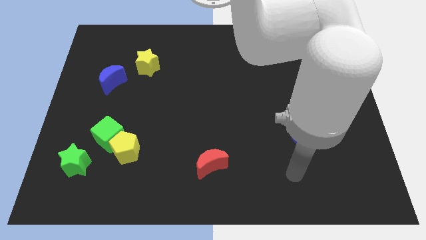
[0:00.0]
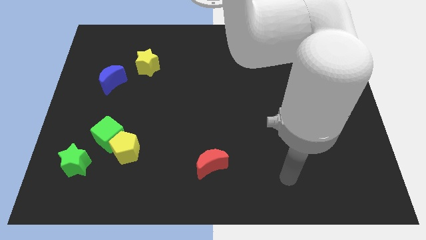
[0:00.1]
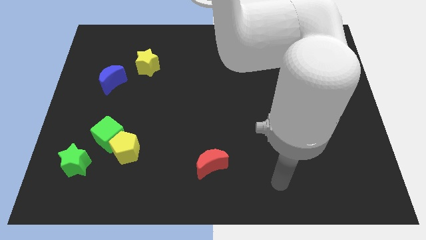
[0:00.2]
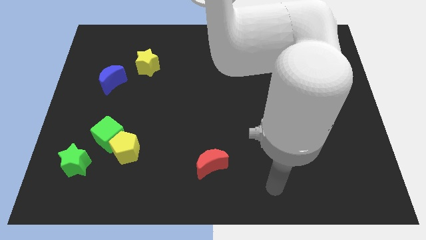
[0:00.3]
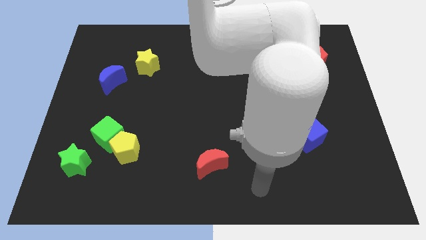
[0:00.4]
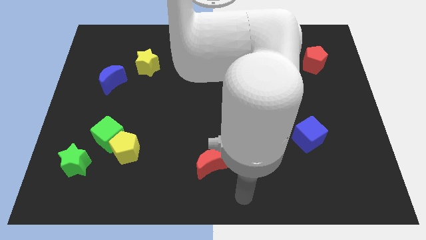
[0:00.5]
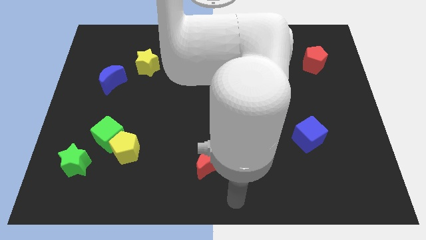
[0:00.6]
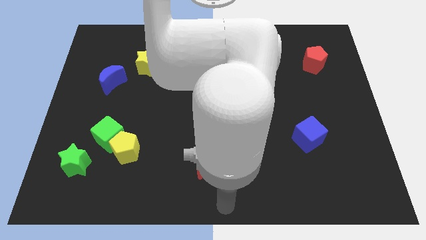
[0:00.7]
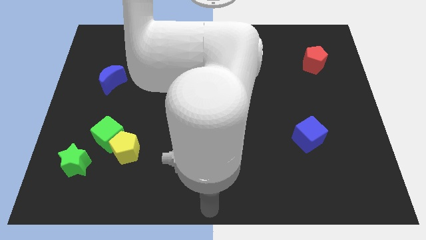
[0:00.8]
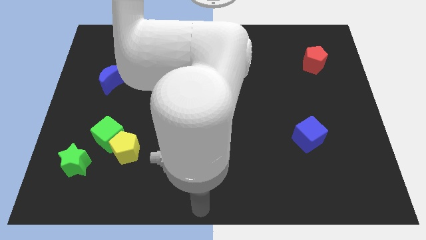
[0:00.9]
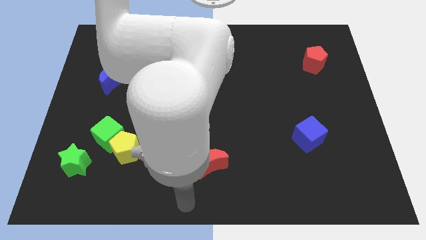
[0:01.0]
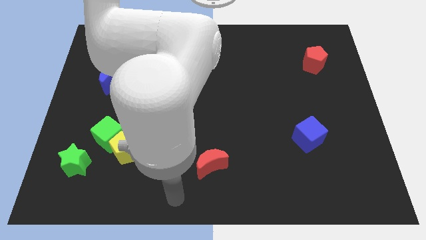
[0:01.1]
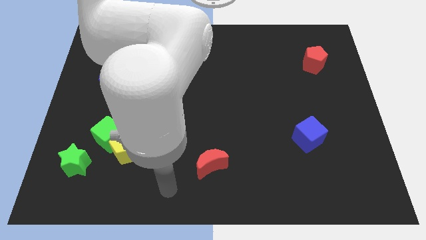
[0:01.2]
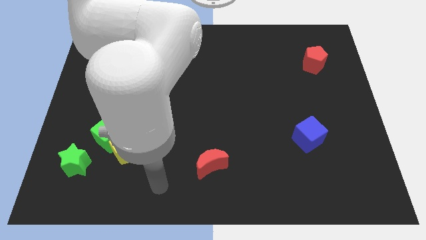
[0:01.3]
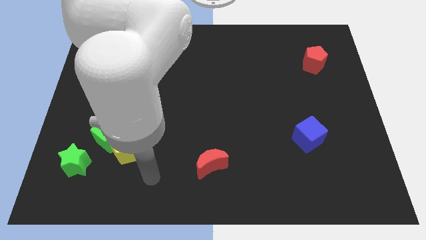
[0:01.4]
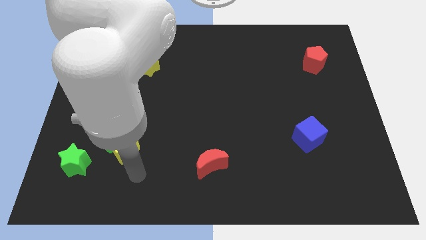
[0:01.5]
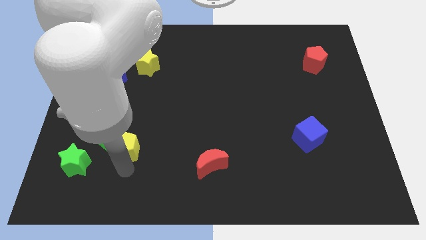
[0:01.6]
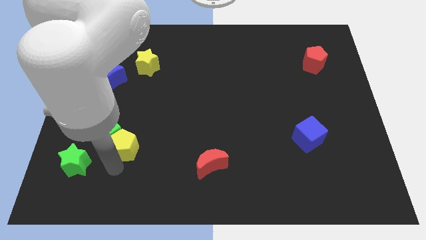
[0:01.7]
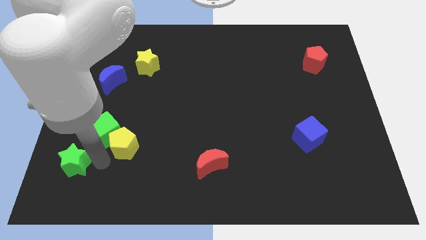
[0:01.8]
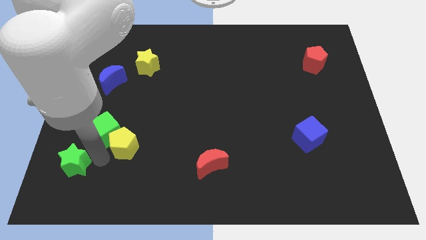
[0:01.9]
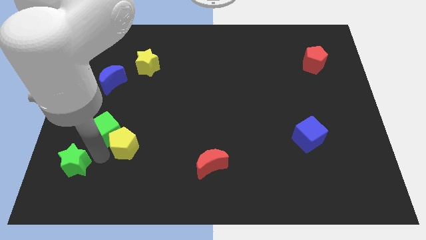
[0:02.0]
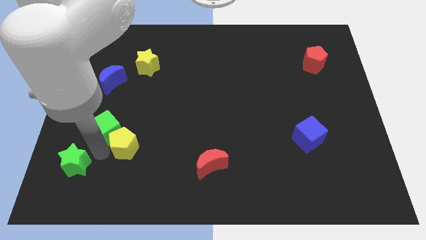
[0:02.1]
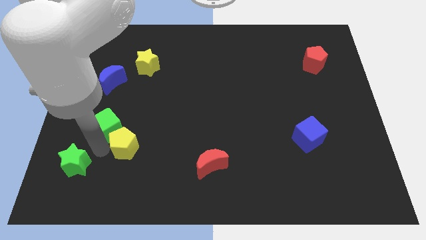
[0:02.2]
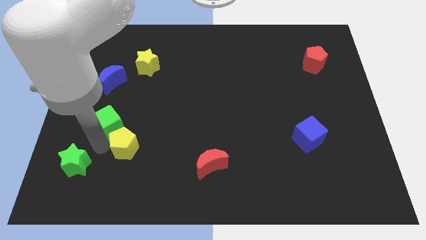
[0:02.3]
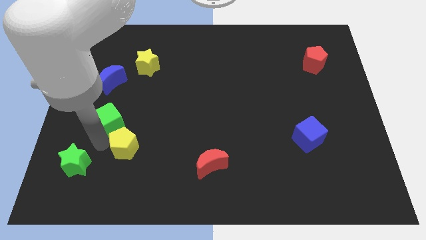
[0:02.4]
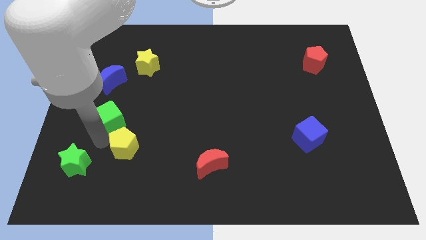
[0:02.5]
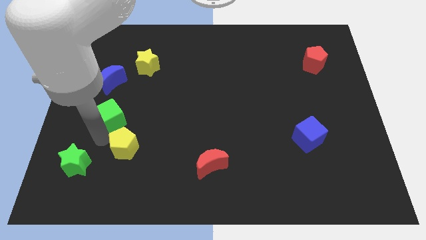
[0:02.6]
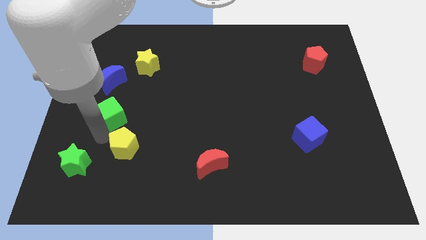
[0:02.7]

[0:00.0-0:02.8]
separate the green cube from the yellow pentagon and green star

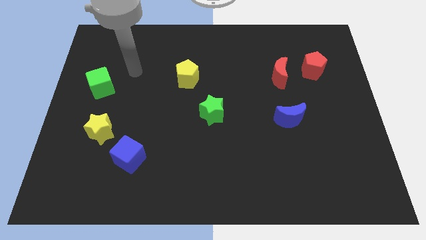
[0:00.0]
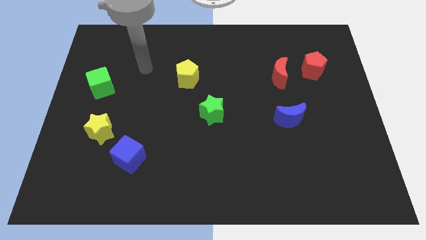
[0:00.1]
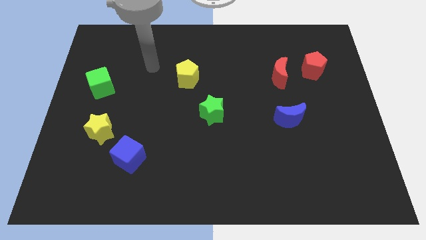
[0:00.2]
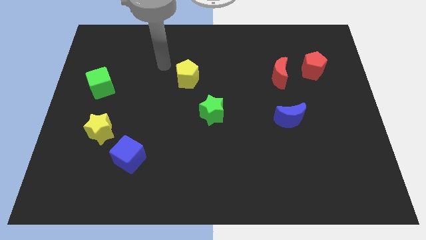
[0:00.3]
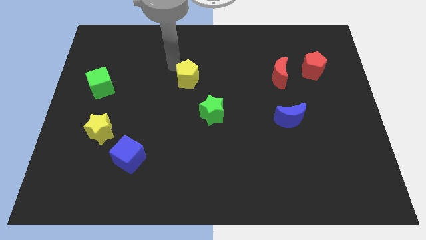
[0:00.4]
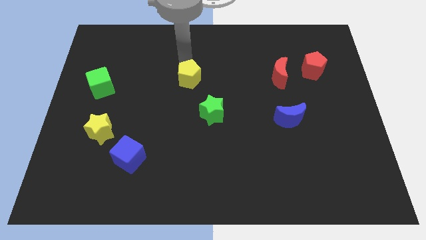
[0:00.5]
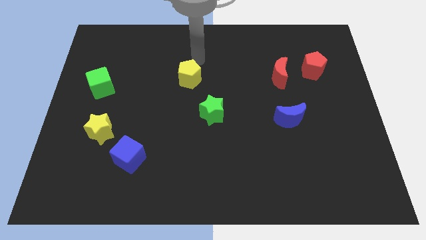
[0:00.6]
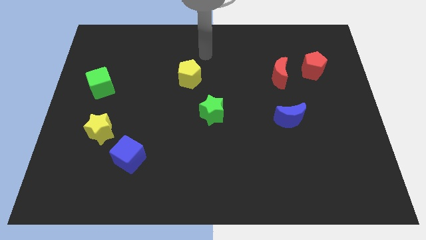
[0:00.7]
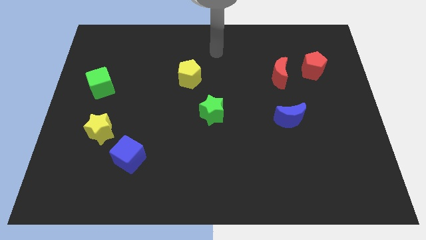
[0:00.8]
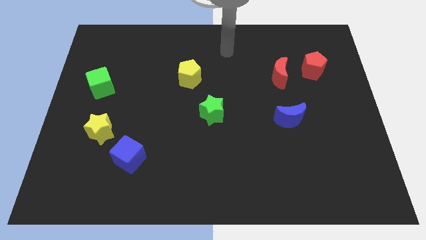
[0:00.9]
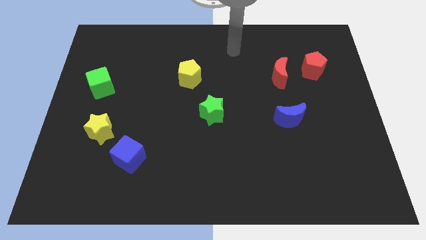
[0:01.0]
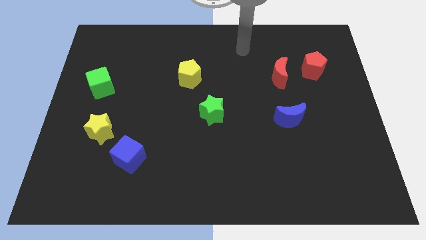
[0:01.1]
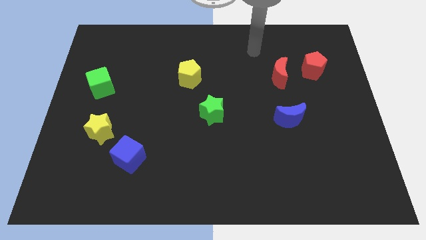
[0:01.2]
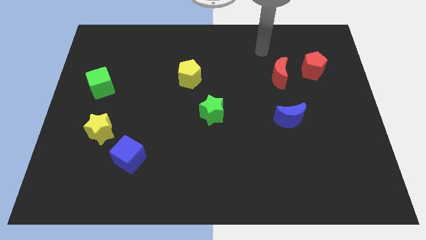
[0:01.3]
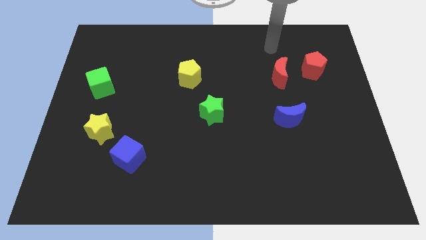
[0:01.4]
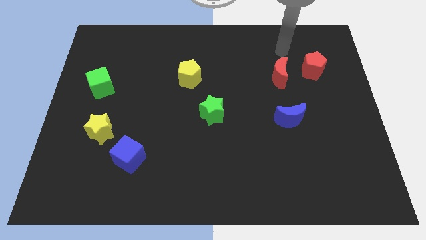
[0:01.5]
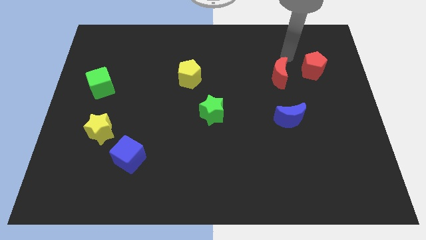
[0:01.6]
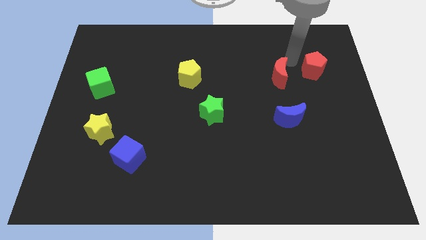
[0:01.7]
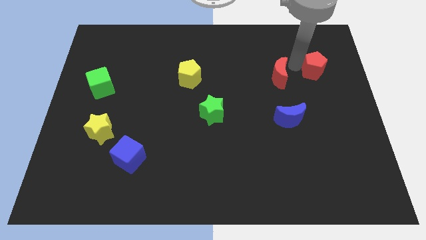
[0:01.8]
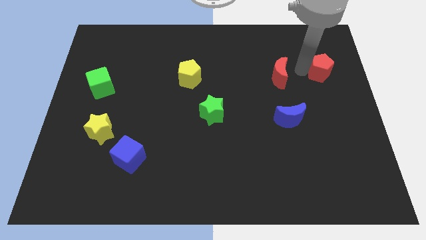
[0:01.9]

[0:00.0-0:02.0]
separate the red moon from the red pentagon

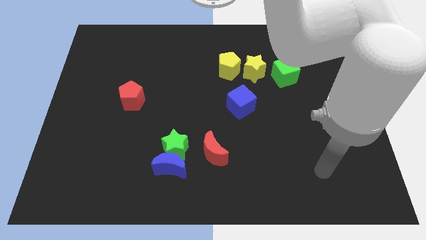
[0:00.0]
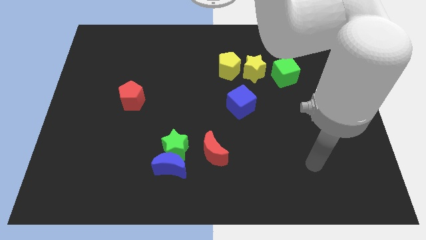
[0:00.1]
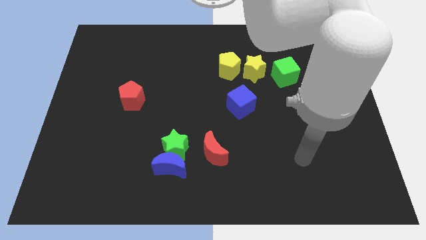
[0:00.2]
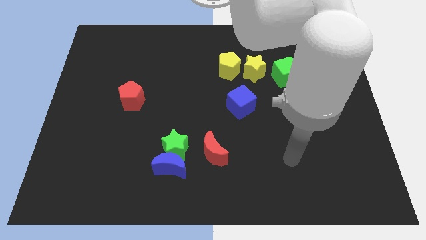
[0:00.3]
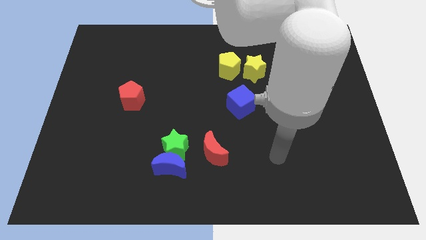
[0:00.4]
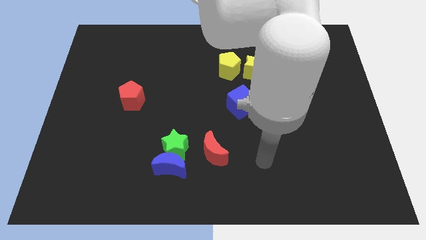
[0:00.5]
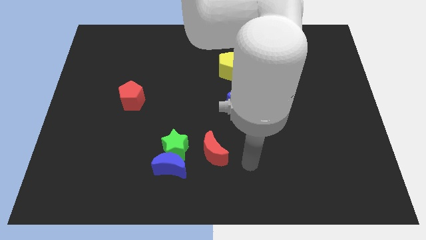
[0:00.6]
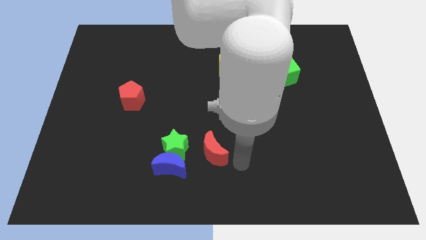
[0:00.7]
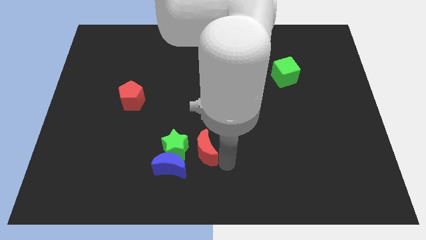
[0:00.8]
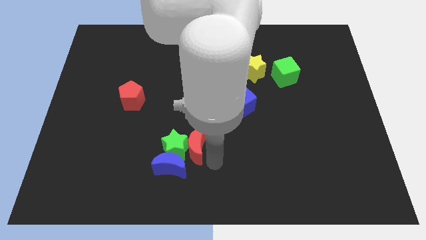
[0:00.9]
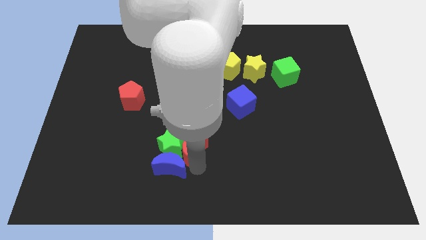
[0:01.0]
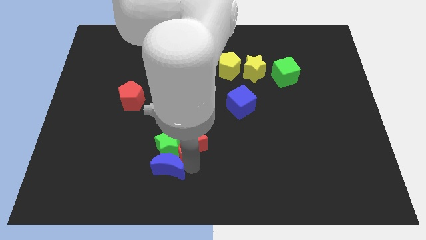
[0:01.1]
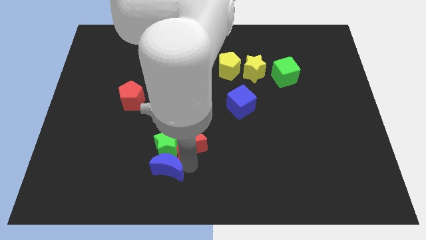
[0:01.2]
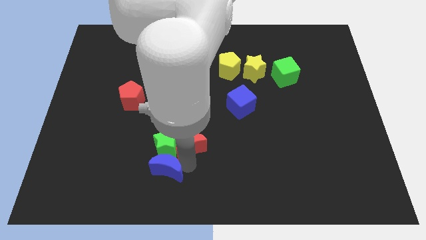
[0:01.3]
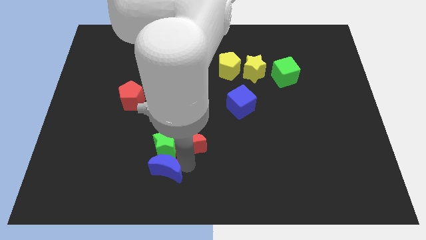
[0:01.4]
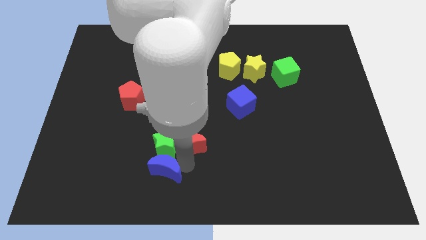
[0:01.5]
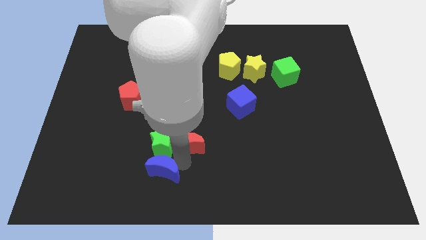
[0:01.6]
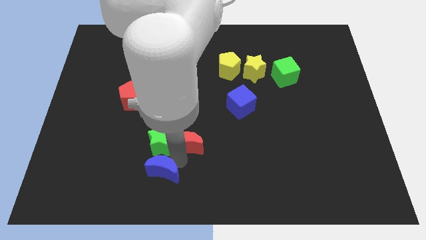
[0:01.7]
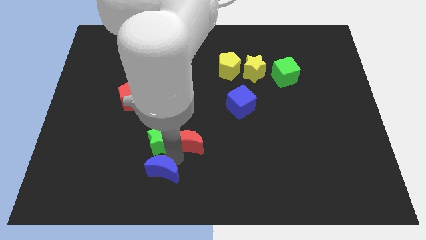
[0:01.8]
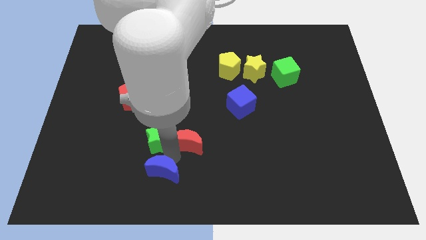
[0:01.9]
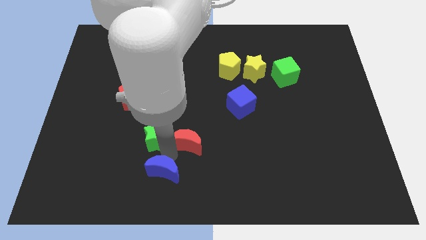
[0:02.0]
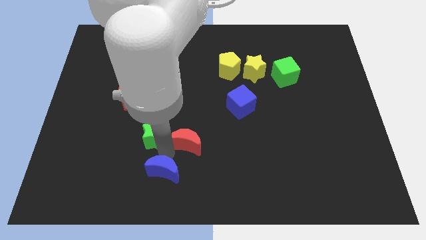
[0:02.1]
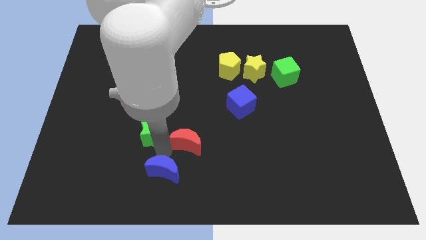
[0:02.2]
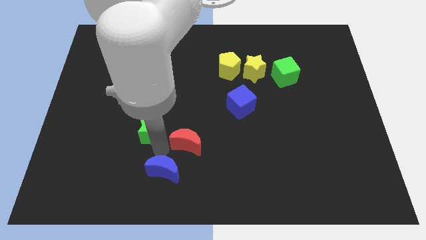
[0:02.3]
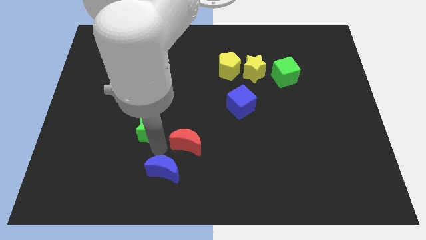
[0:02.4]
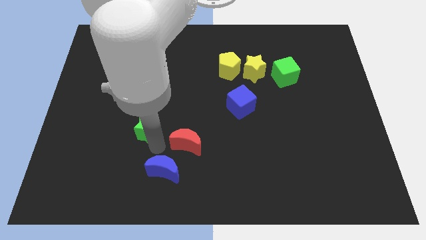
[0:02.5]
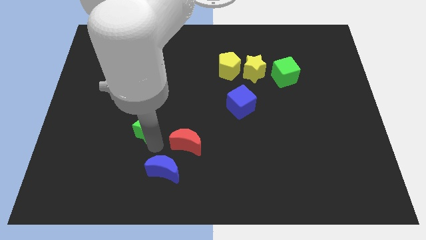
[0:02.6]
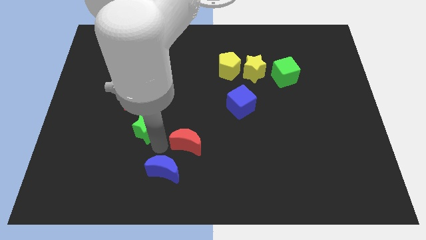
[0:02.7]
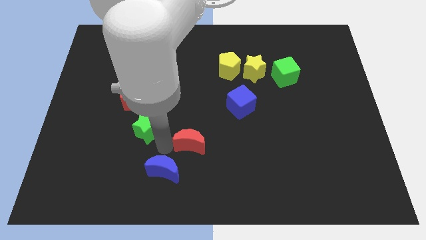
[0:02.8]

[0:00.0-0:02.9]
pull the green star apart from the blue moon and red moon

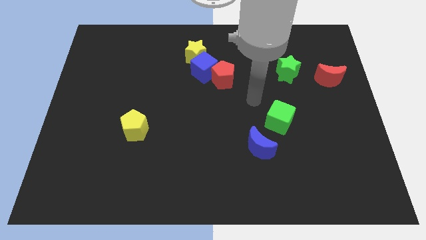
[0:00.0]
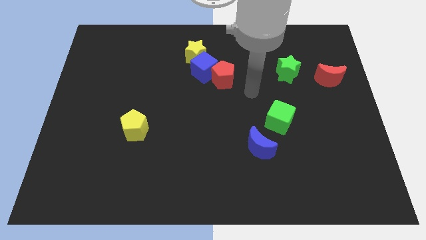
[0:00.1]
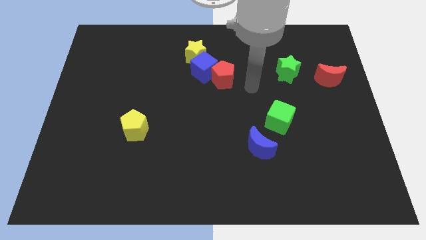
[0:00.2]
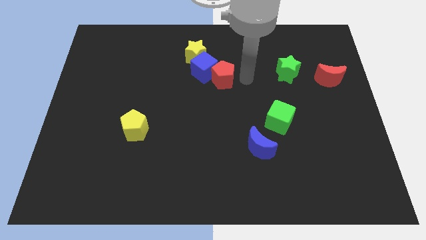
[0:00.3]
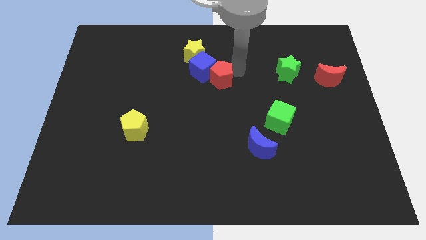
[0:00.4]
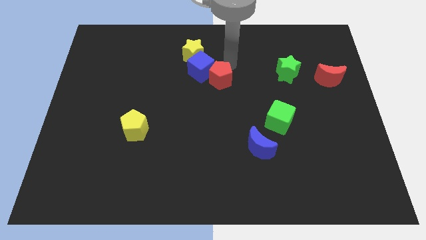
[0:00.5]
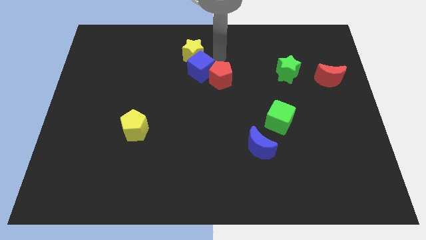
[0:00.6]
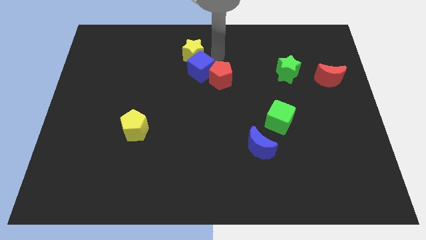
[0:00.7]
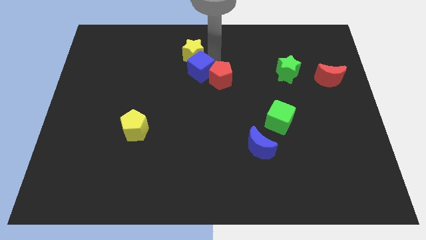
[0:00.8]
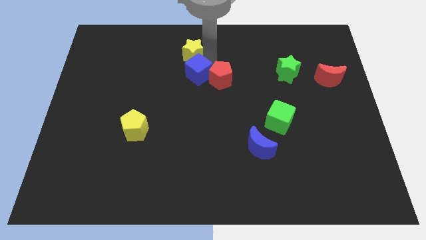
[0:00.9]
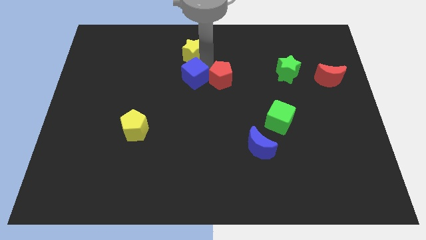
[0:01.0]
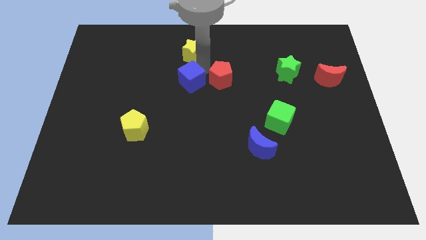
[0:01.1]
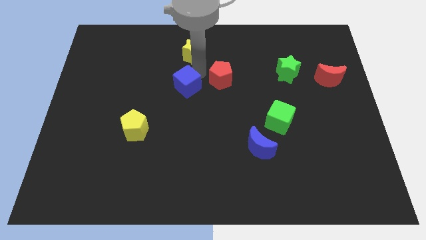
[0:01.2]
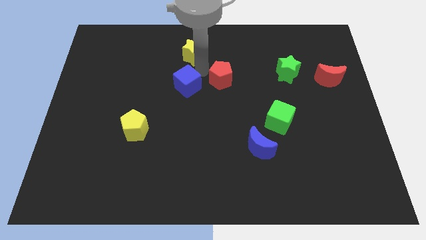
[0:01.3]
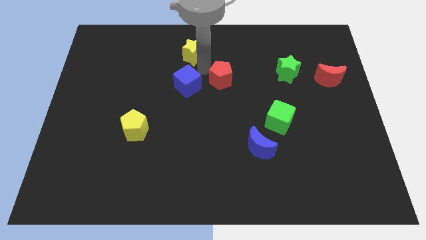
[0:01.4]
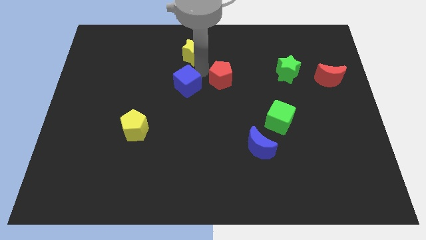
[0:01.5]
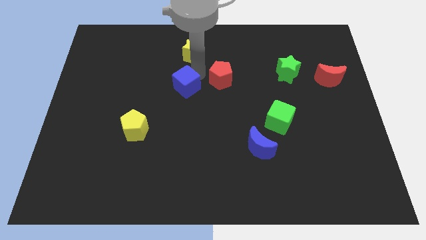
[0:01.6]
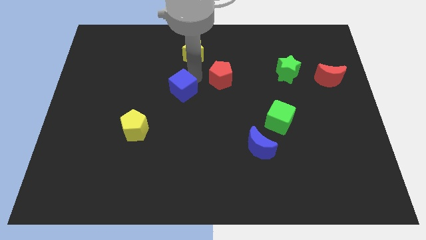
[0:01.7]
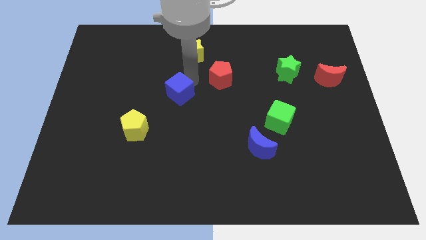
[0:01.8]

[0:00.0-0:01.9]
separate the blue cube from the yellow star and red pentagon

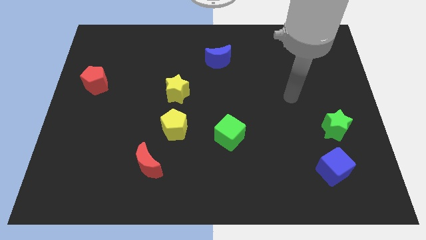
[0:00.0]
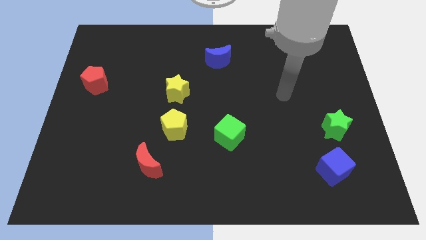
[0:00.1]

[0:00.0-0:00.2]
separate the yellow star from the yellow pentagon
